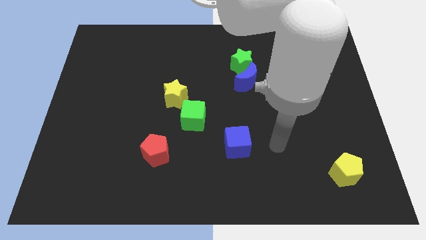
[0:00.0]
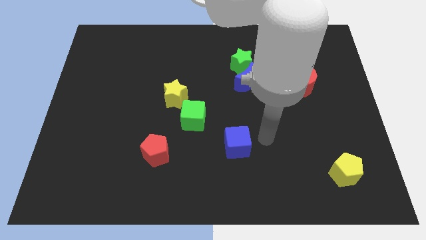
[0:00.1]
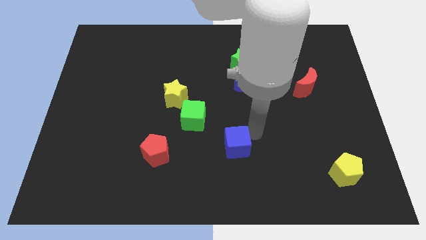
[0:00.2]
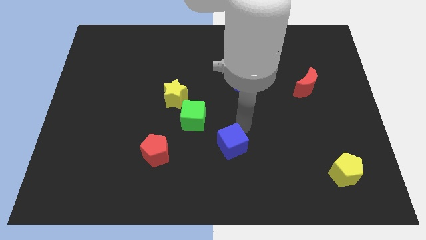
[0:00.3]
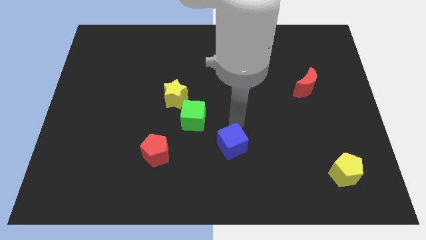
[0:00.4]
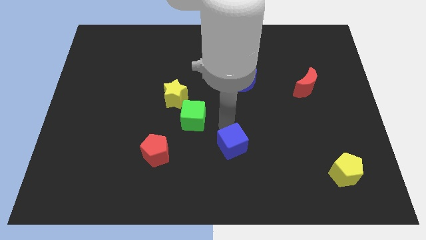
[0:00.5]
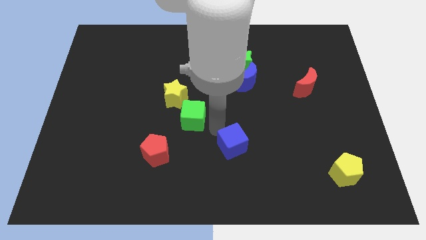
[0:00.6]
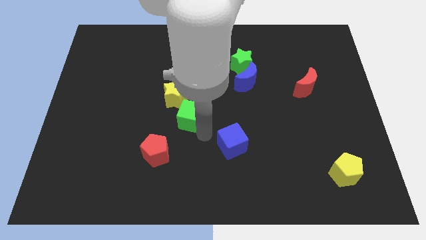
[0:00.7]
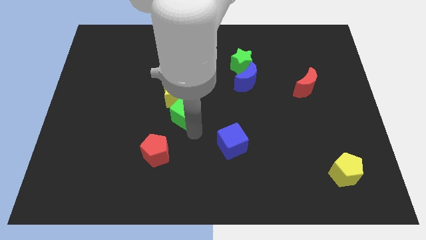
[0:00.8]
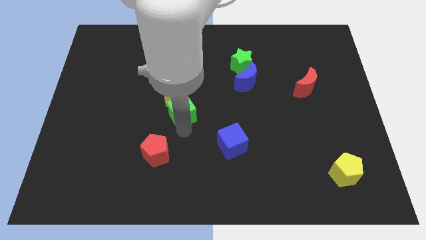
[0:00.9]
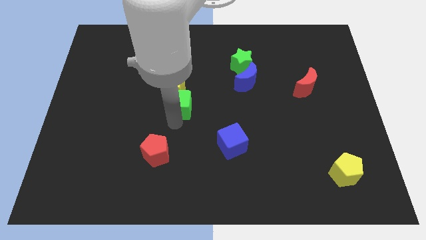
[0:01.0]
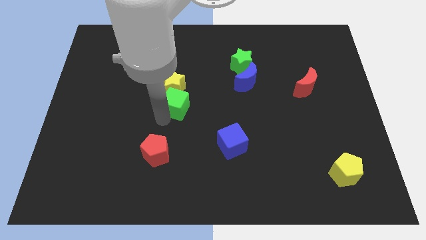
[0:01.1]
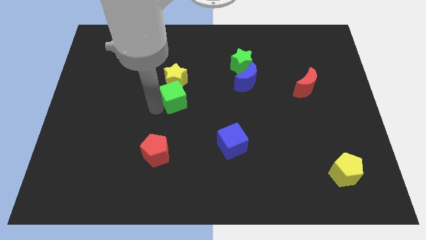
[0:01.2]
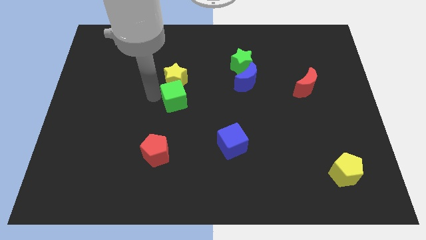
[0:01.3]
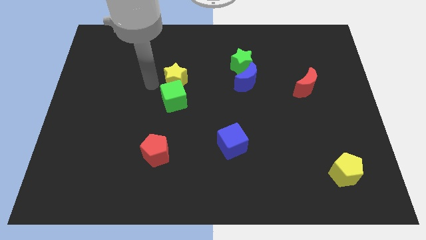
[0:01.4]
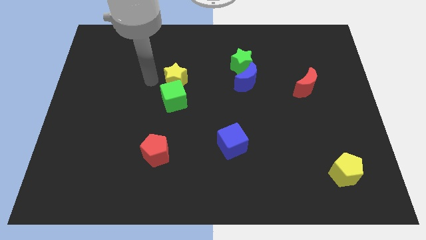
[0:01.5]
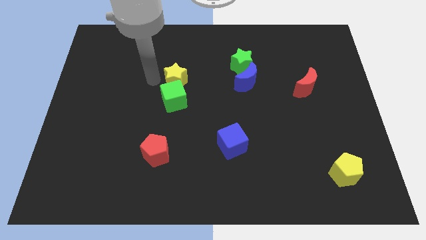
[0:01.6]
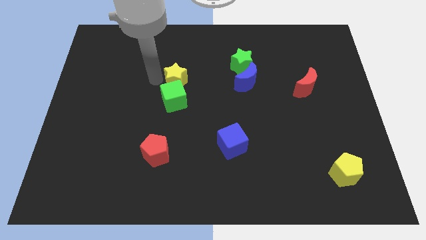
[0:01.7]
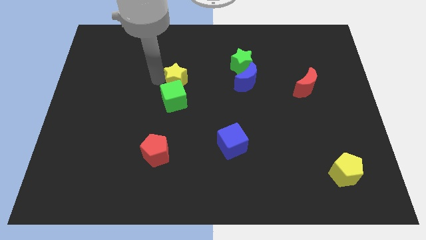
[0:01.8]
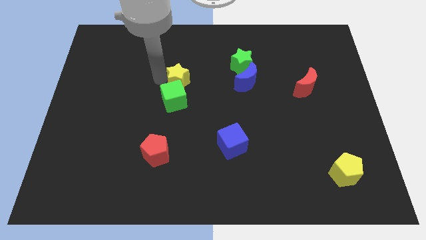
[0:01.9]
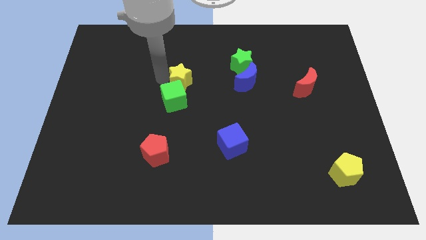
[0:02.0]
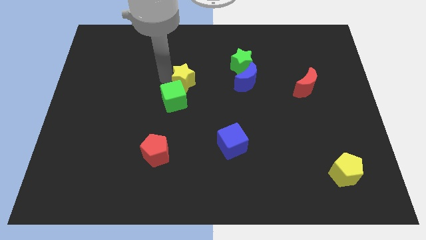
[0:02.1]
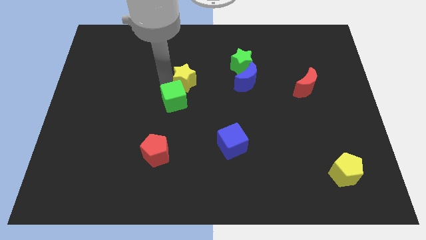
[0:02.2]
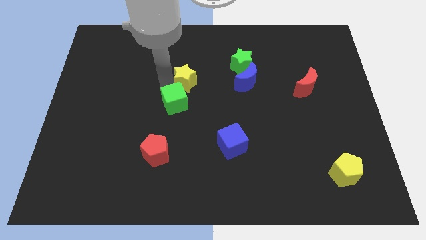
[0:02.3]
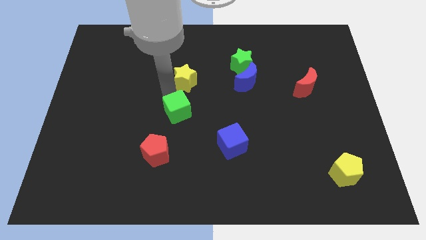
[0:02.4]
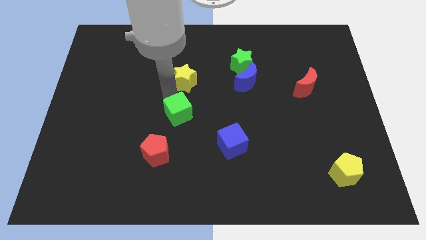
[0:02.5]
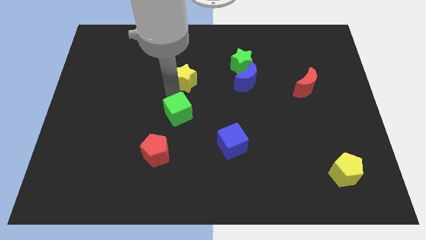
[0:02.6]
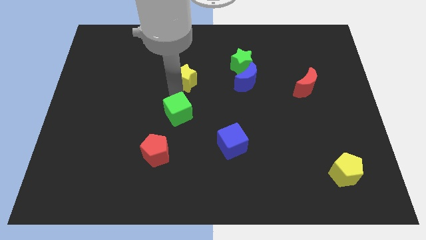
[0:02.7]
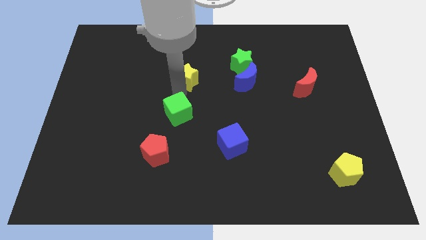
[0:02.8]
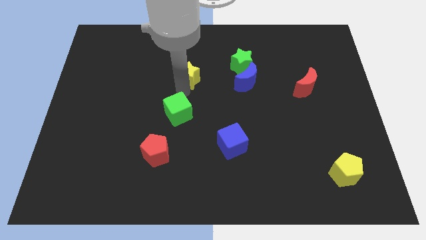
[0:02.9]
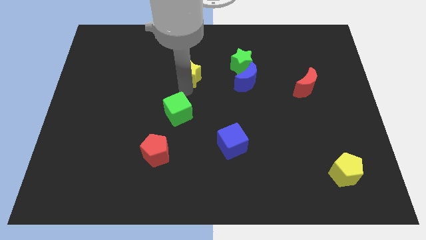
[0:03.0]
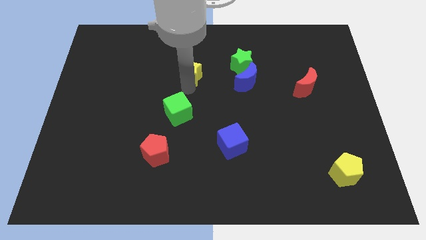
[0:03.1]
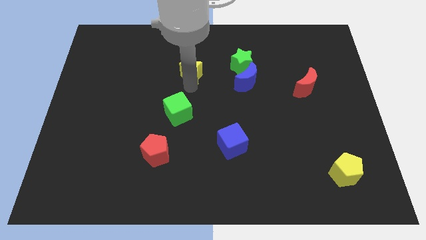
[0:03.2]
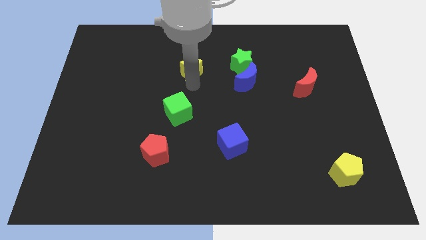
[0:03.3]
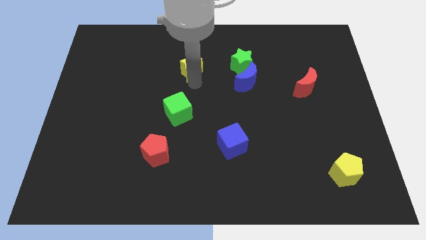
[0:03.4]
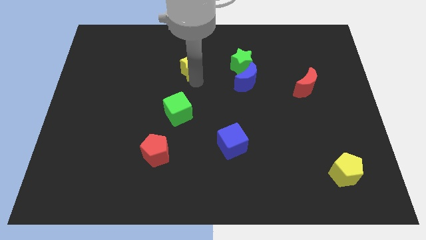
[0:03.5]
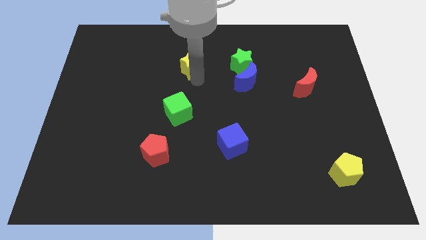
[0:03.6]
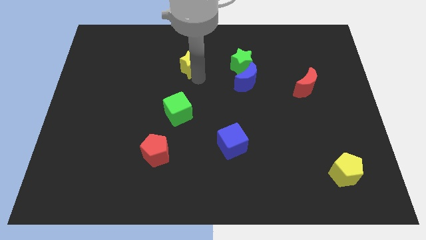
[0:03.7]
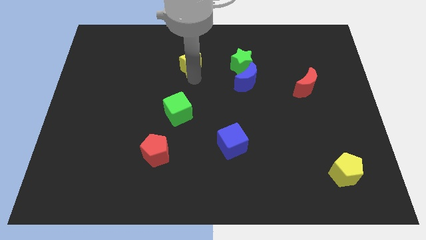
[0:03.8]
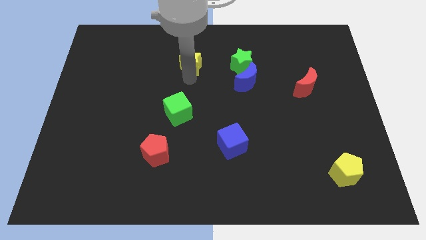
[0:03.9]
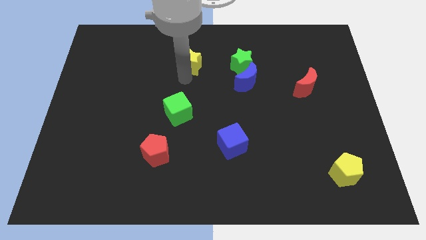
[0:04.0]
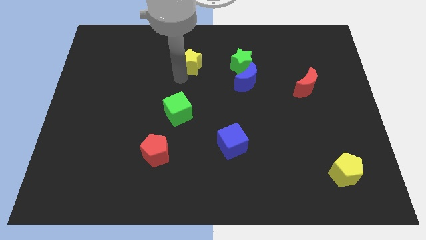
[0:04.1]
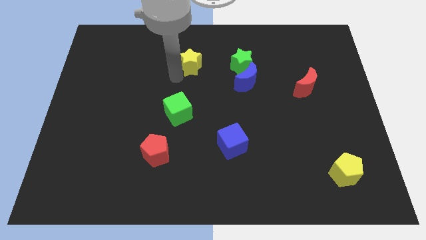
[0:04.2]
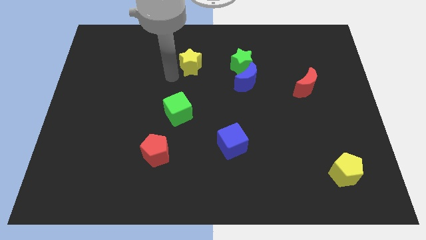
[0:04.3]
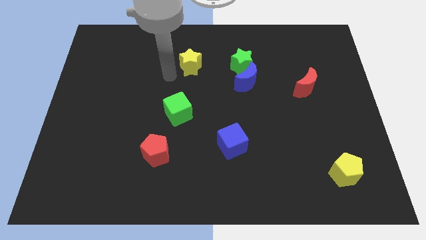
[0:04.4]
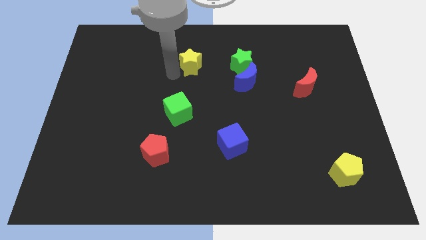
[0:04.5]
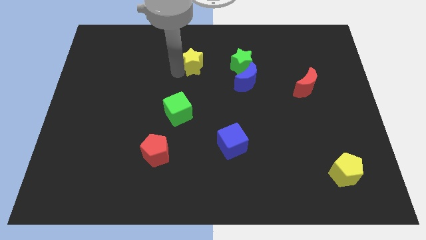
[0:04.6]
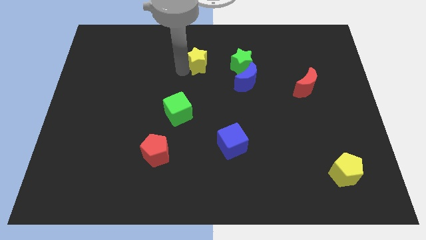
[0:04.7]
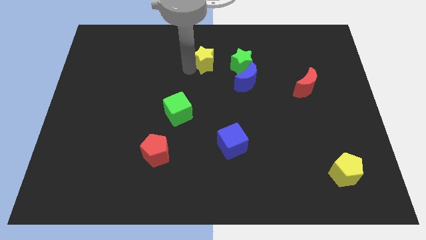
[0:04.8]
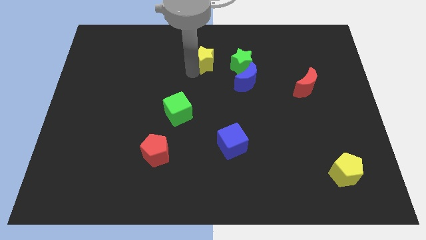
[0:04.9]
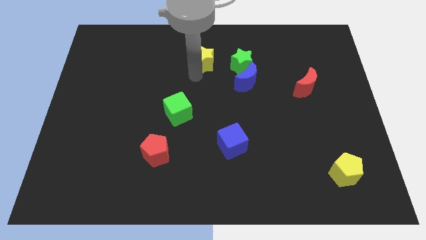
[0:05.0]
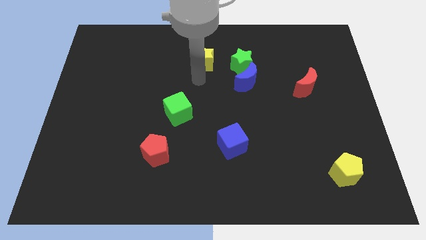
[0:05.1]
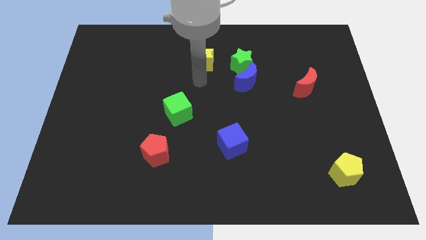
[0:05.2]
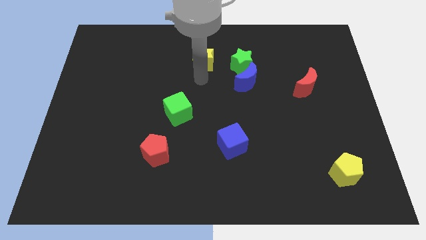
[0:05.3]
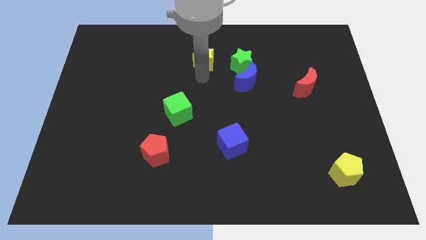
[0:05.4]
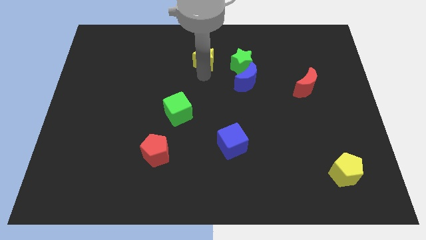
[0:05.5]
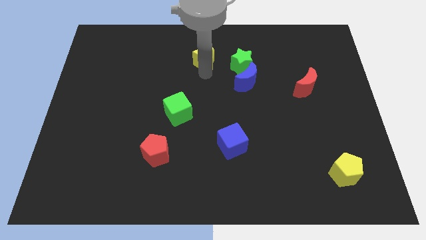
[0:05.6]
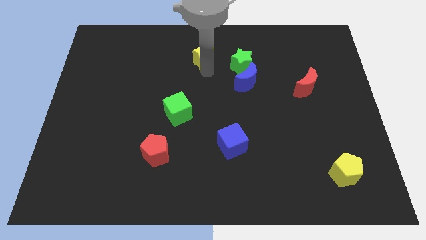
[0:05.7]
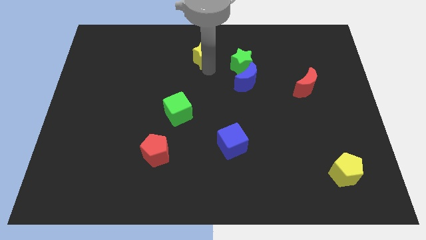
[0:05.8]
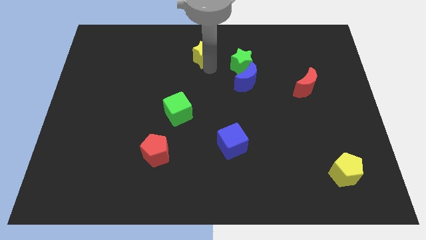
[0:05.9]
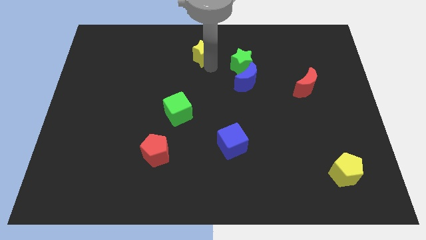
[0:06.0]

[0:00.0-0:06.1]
move the yellow star to the top

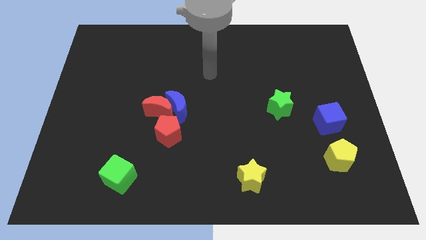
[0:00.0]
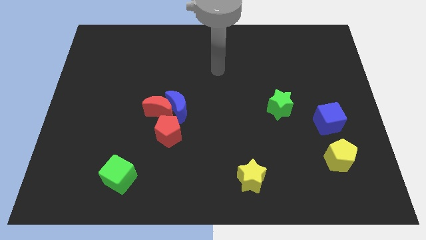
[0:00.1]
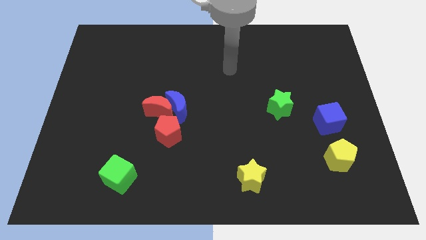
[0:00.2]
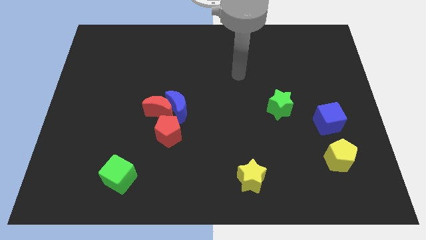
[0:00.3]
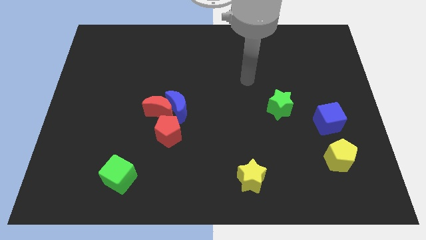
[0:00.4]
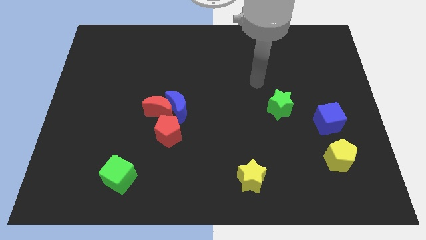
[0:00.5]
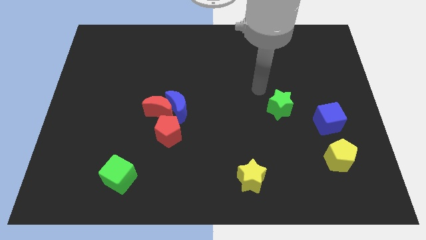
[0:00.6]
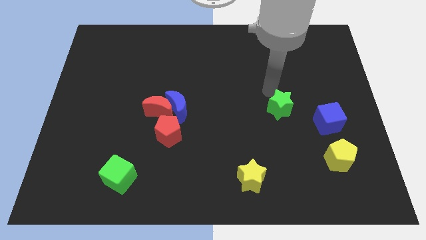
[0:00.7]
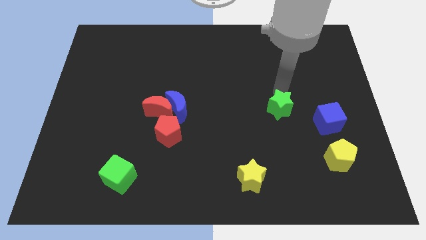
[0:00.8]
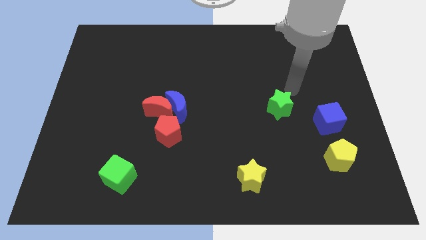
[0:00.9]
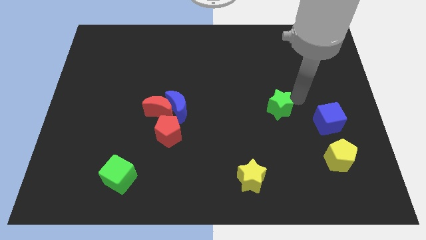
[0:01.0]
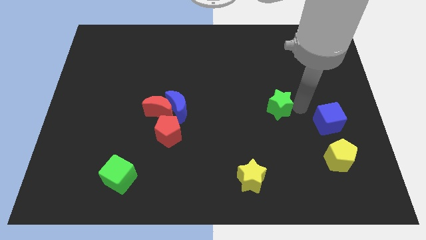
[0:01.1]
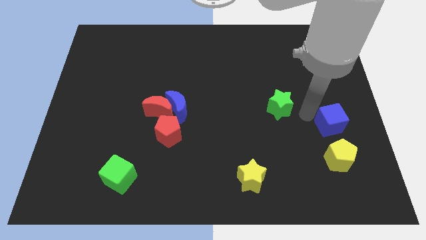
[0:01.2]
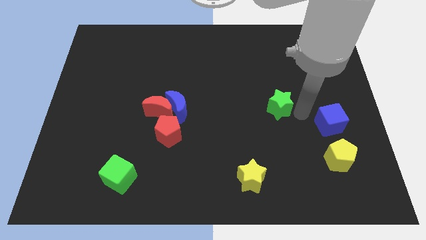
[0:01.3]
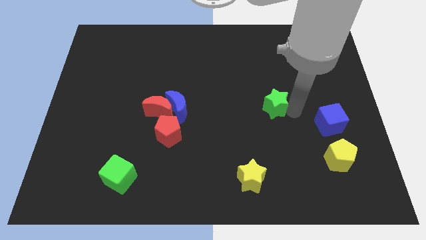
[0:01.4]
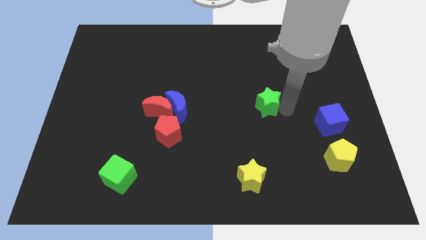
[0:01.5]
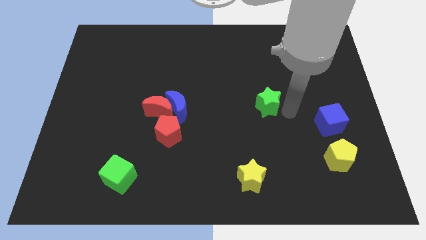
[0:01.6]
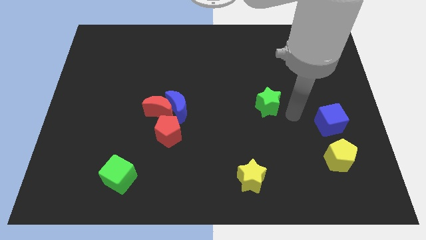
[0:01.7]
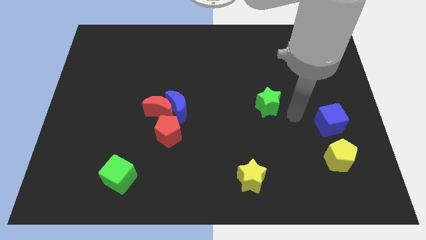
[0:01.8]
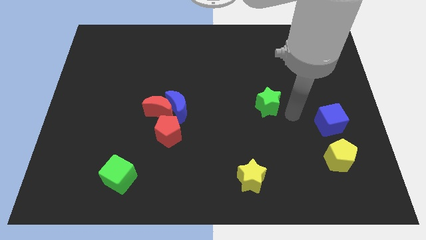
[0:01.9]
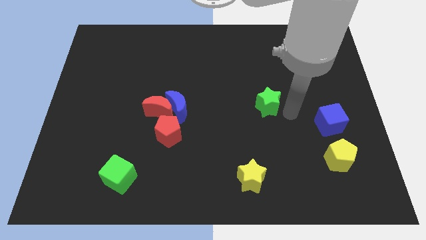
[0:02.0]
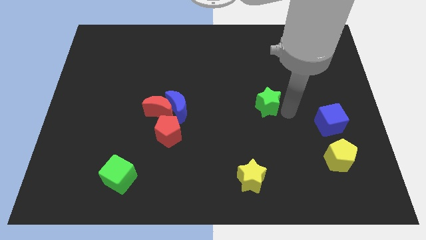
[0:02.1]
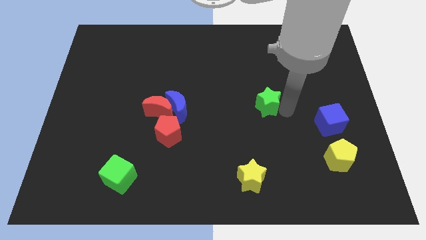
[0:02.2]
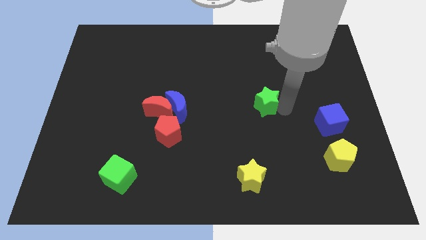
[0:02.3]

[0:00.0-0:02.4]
push the green star to the center of the board
